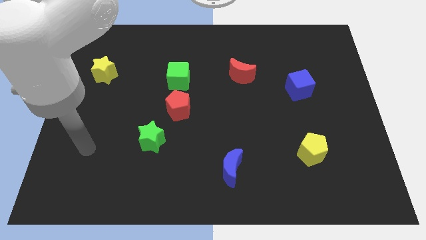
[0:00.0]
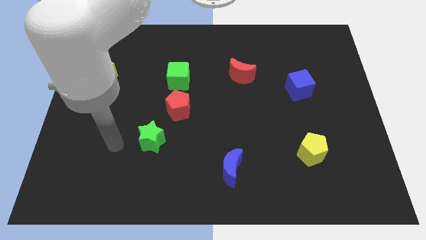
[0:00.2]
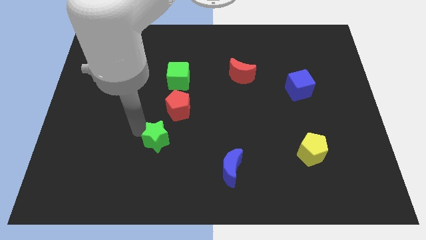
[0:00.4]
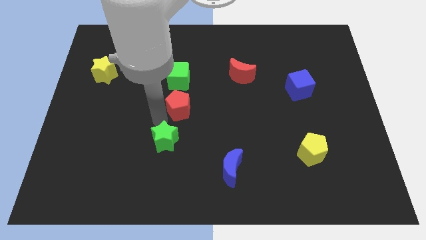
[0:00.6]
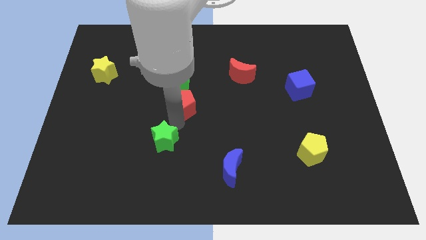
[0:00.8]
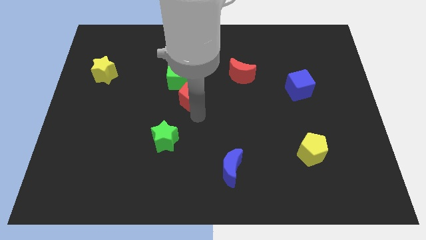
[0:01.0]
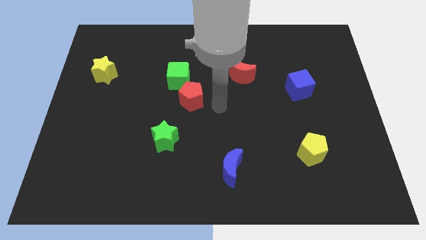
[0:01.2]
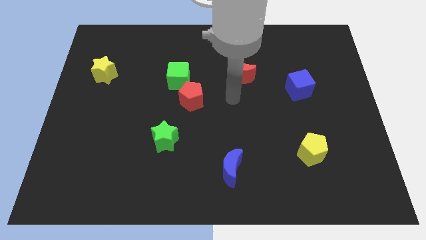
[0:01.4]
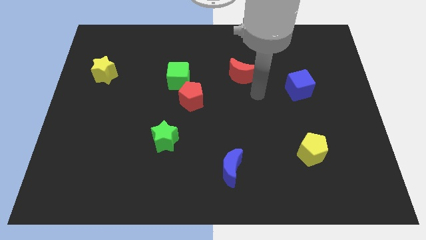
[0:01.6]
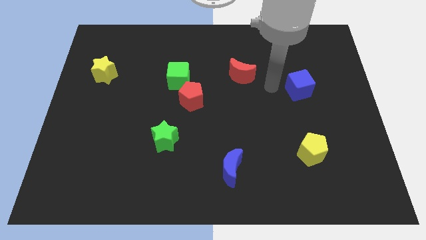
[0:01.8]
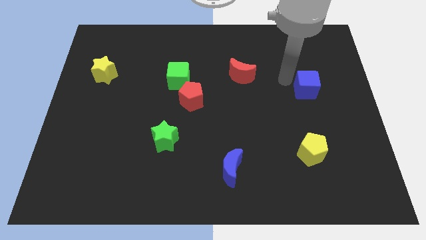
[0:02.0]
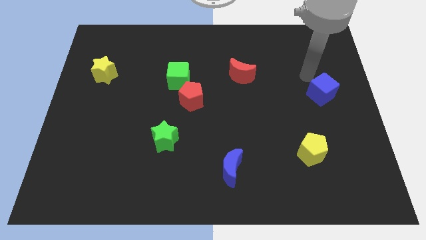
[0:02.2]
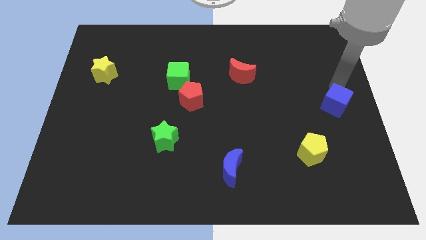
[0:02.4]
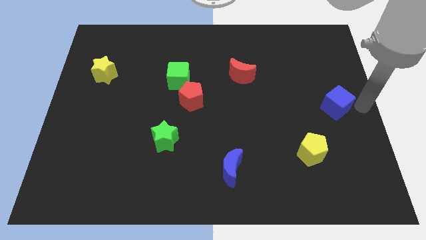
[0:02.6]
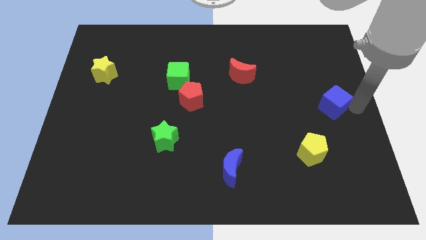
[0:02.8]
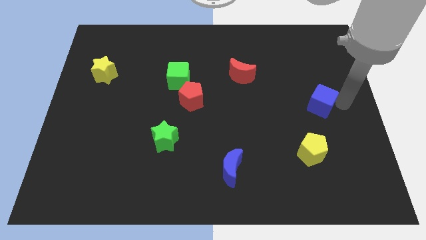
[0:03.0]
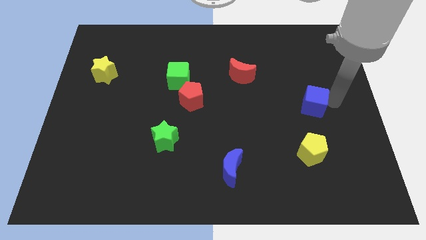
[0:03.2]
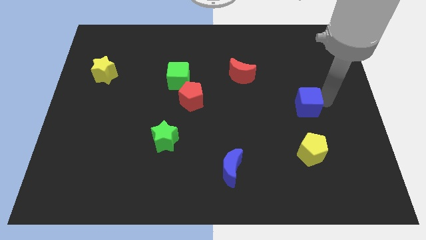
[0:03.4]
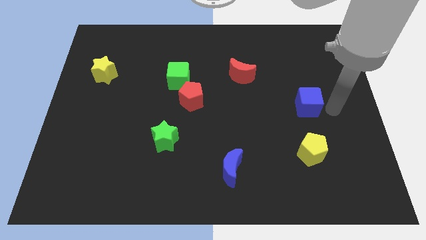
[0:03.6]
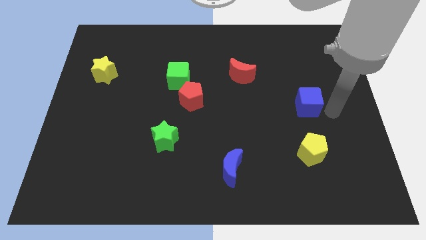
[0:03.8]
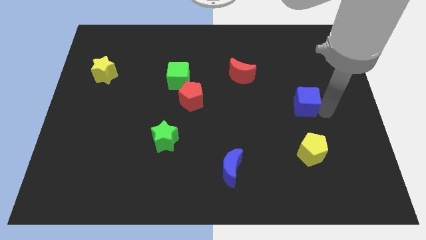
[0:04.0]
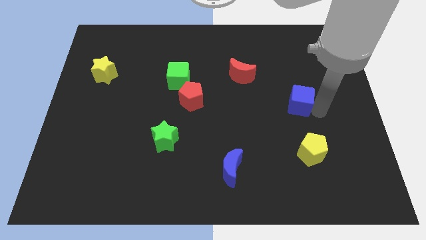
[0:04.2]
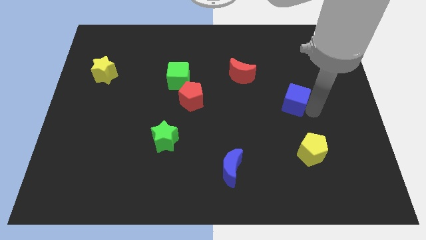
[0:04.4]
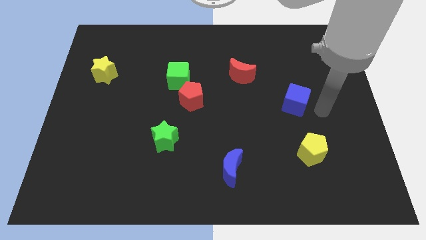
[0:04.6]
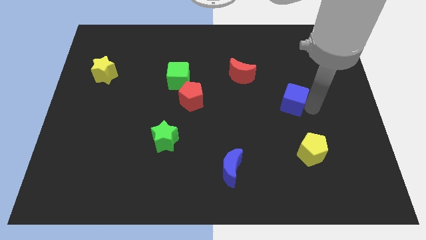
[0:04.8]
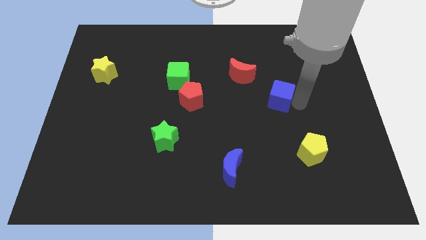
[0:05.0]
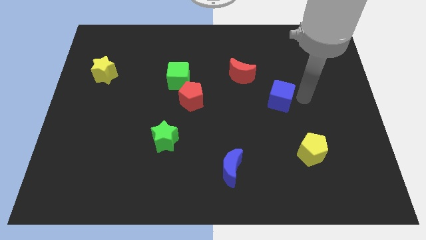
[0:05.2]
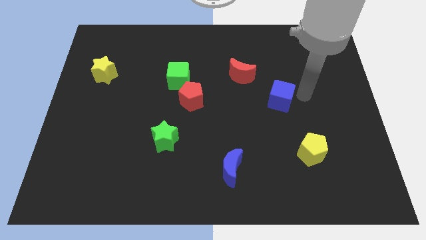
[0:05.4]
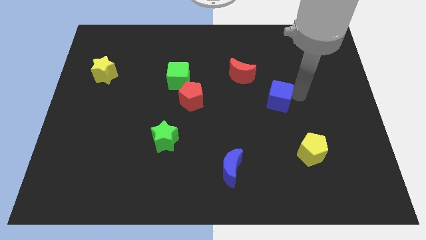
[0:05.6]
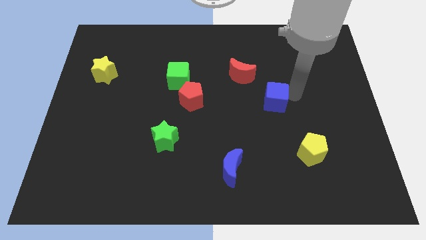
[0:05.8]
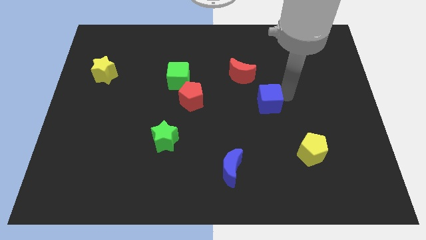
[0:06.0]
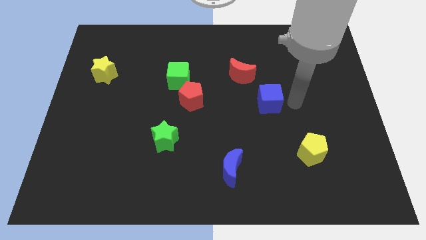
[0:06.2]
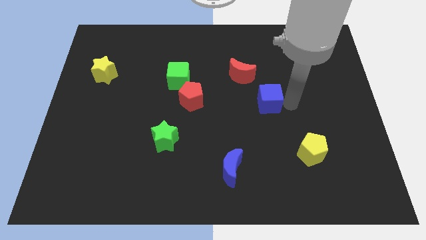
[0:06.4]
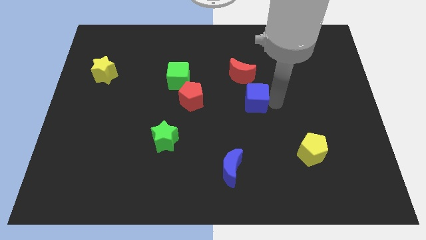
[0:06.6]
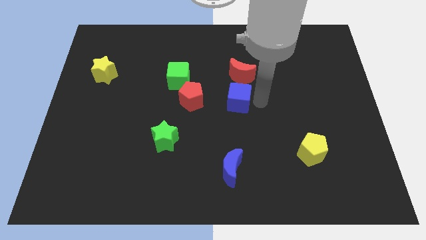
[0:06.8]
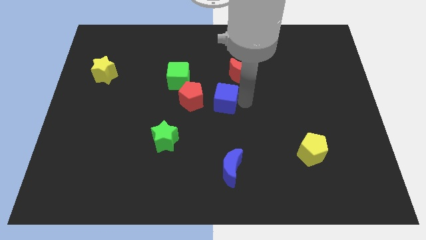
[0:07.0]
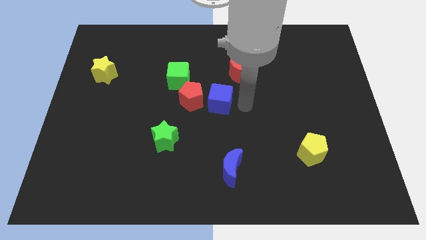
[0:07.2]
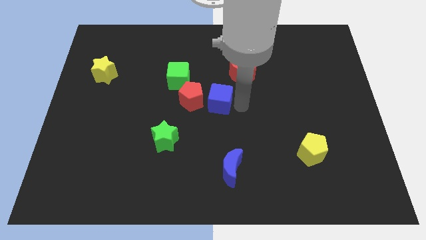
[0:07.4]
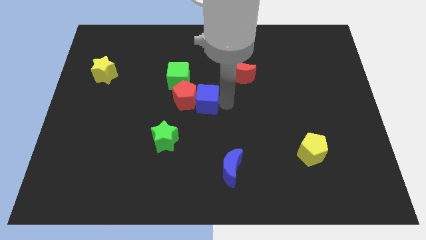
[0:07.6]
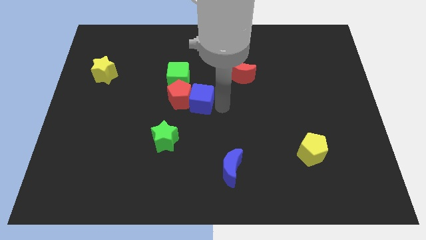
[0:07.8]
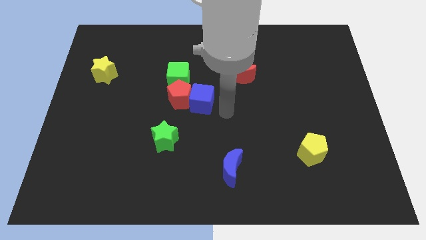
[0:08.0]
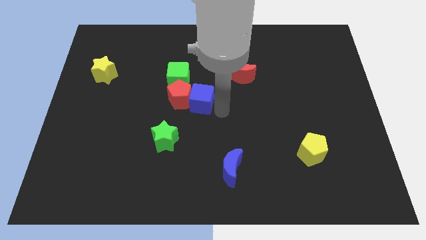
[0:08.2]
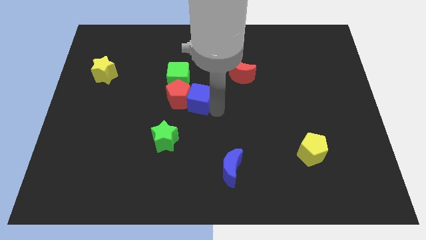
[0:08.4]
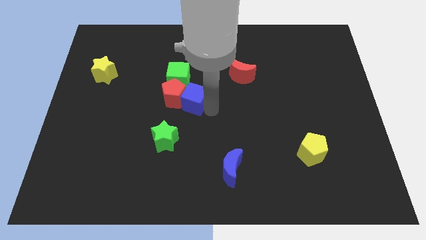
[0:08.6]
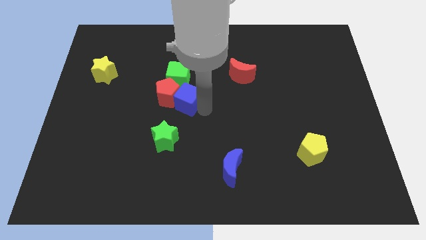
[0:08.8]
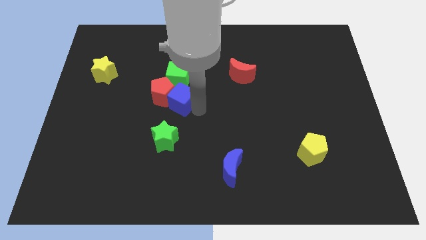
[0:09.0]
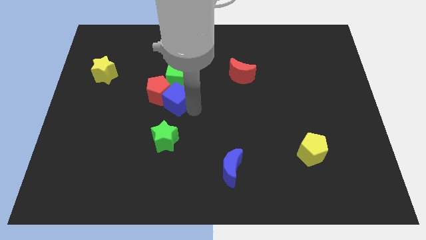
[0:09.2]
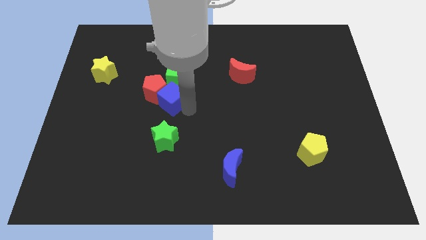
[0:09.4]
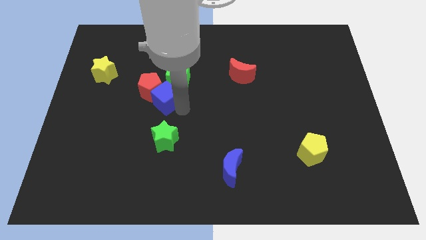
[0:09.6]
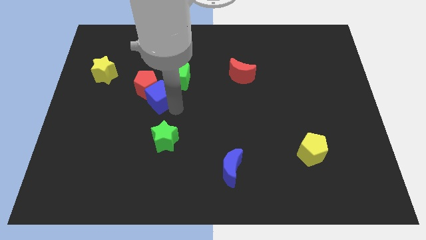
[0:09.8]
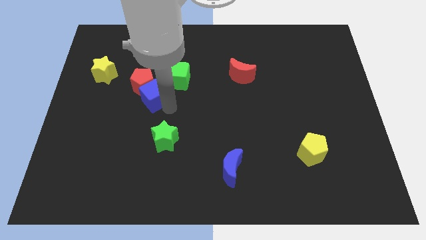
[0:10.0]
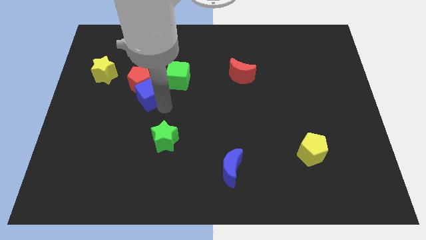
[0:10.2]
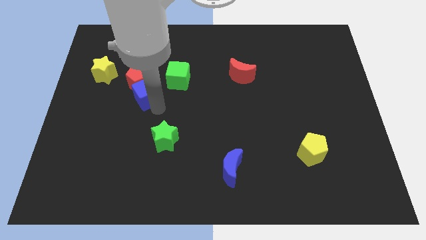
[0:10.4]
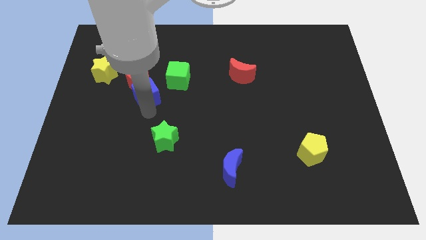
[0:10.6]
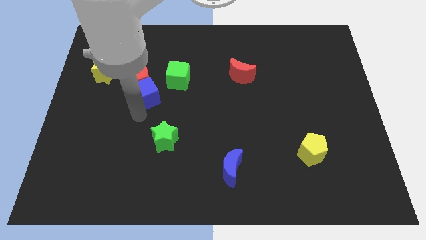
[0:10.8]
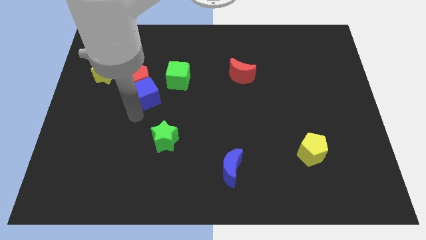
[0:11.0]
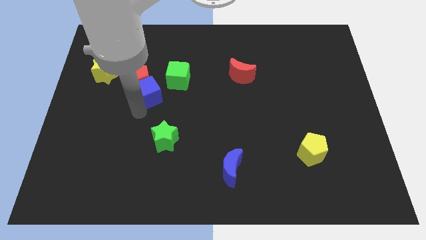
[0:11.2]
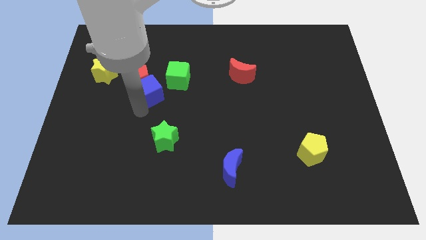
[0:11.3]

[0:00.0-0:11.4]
slide the blue cube left of the green cube

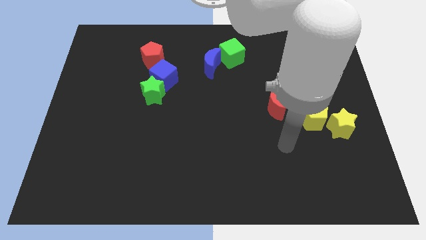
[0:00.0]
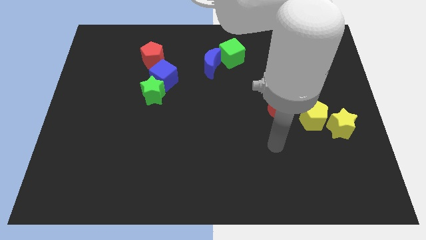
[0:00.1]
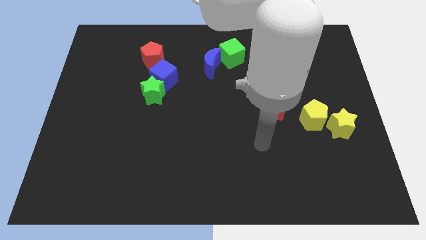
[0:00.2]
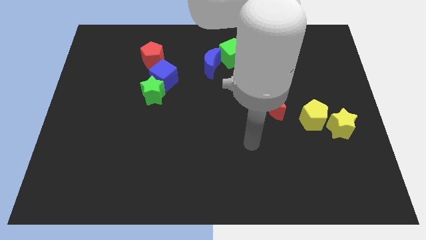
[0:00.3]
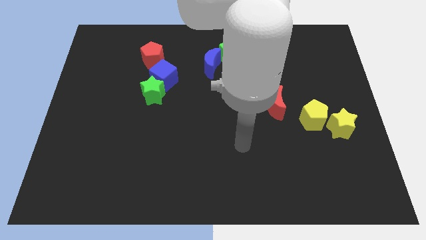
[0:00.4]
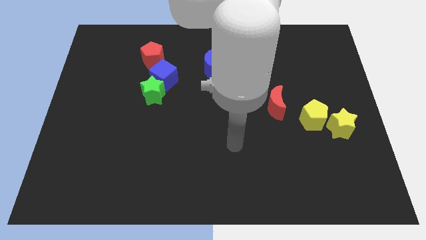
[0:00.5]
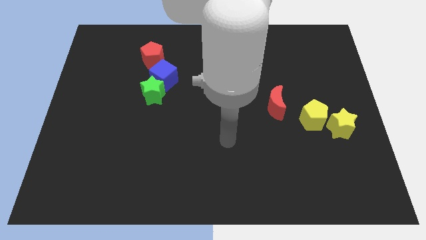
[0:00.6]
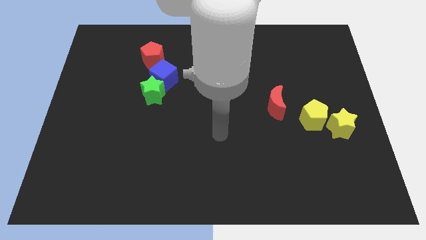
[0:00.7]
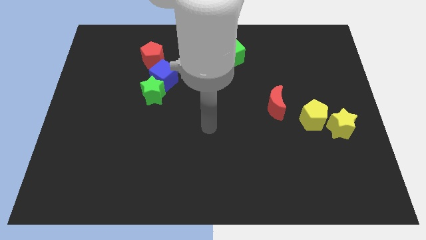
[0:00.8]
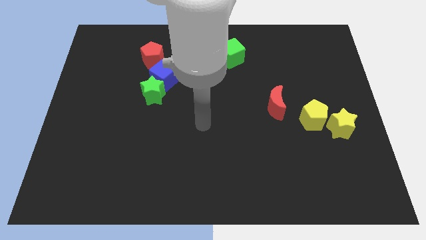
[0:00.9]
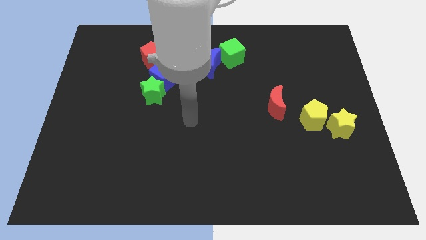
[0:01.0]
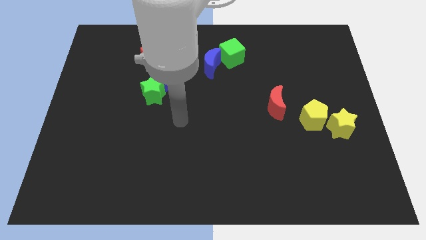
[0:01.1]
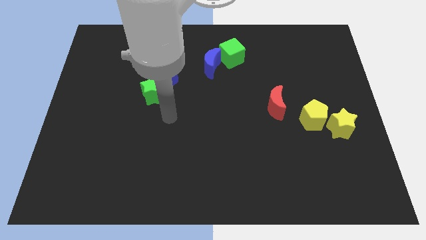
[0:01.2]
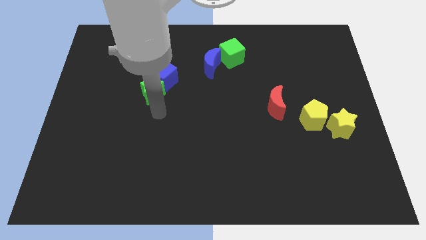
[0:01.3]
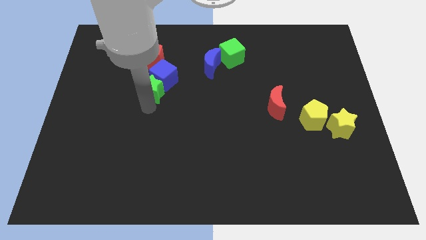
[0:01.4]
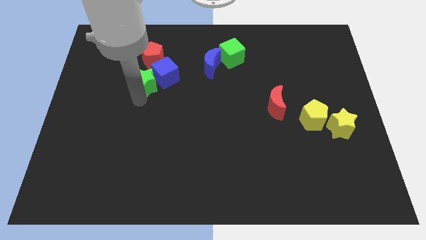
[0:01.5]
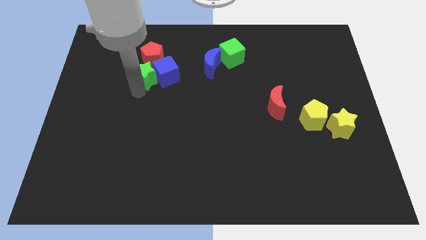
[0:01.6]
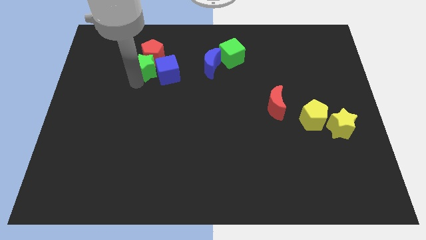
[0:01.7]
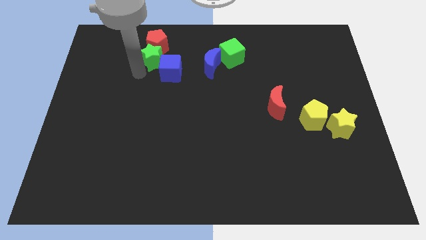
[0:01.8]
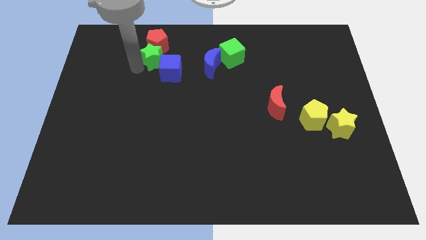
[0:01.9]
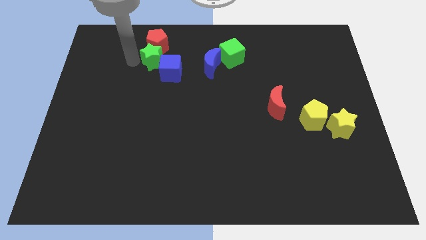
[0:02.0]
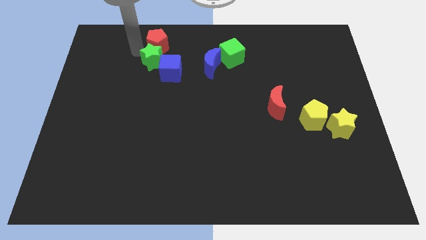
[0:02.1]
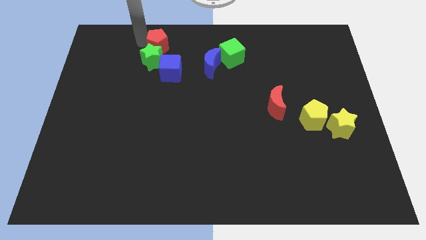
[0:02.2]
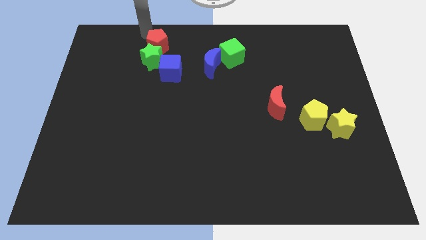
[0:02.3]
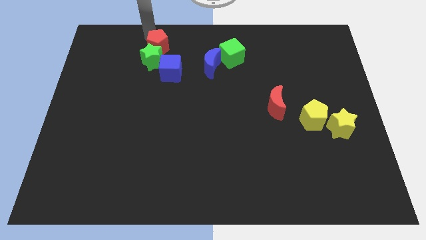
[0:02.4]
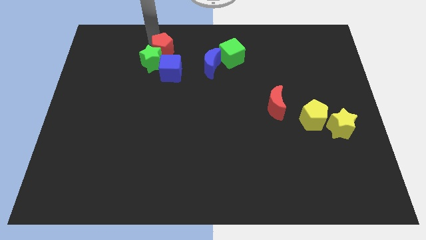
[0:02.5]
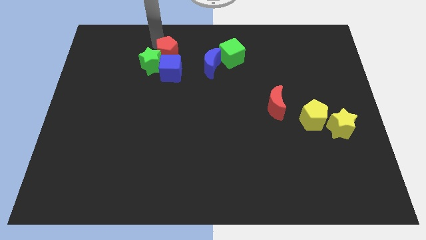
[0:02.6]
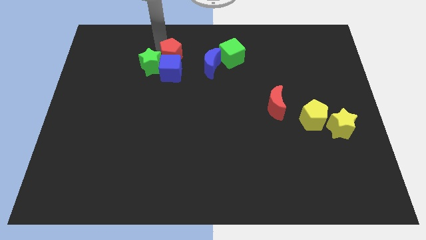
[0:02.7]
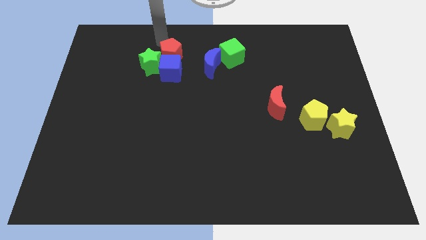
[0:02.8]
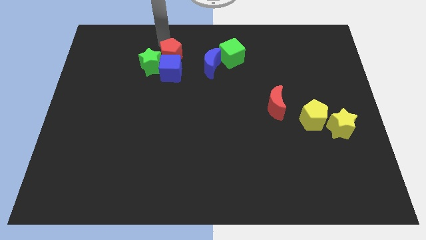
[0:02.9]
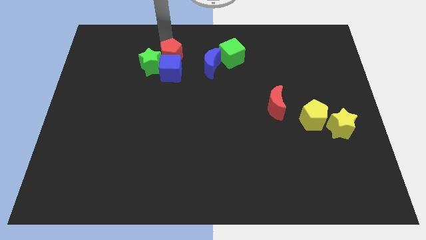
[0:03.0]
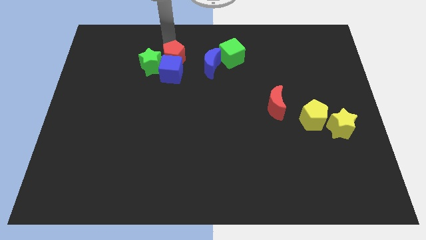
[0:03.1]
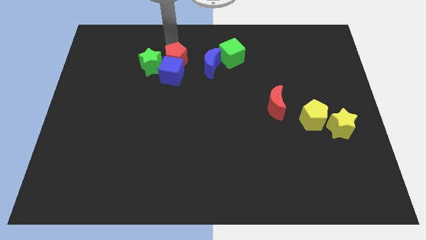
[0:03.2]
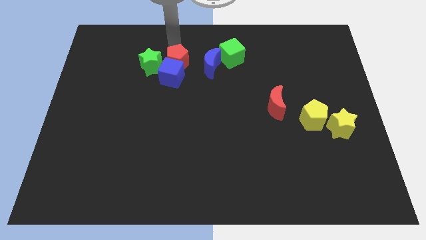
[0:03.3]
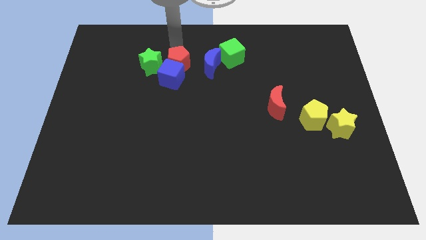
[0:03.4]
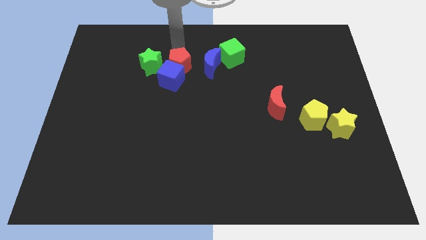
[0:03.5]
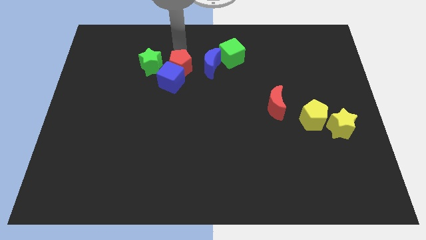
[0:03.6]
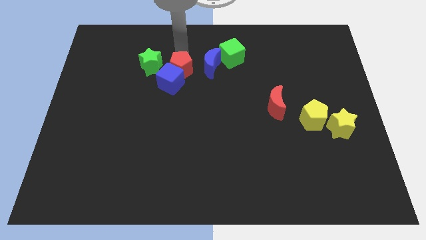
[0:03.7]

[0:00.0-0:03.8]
slide the red pentagon to the bottom left side of the blue moon
